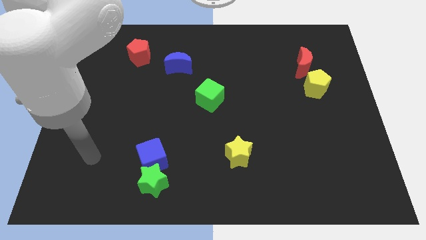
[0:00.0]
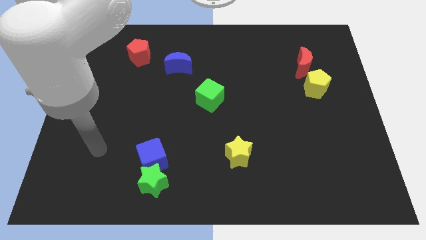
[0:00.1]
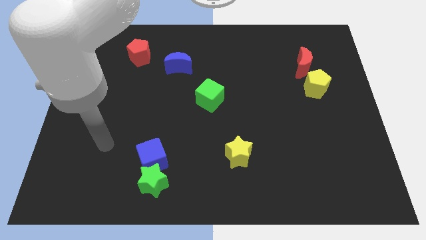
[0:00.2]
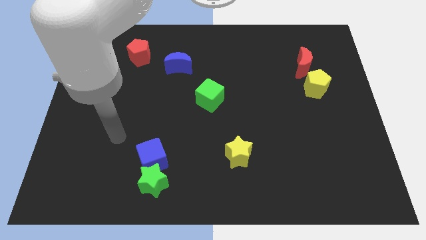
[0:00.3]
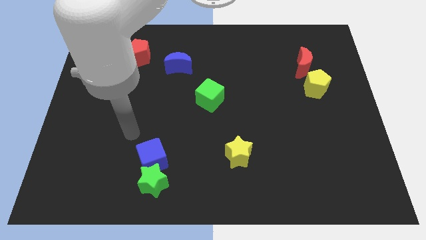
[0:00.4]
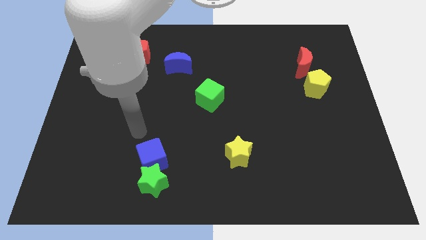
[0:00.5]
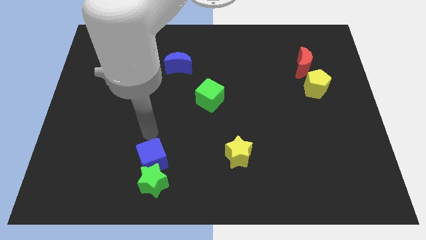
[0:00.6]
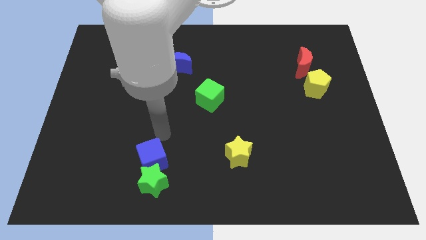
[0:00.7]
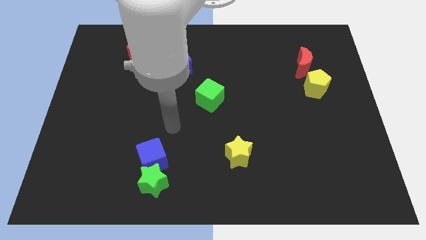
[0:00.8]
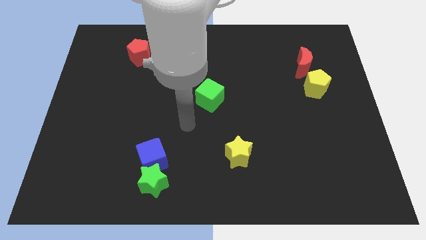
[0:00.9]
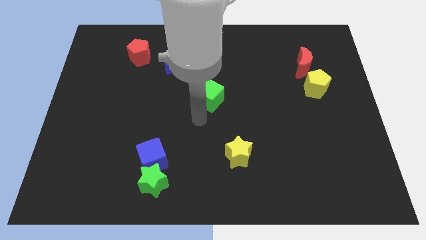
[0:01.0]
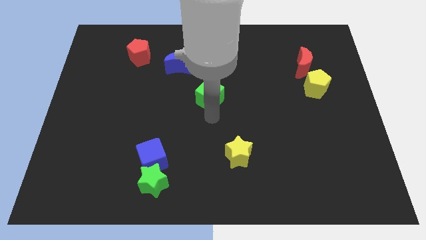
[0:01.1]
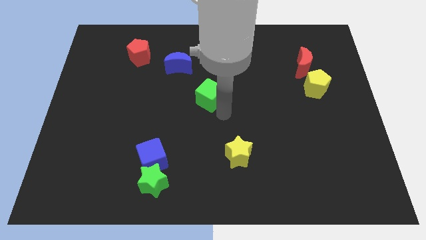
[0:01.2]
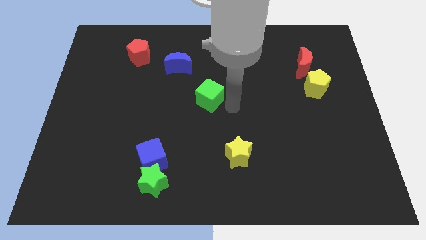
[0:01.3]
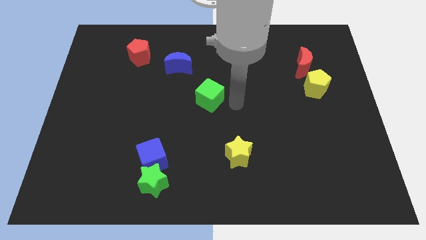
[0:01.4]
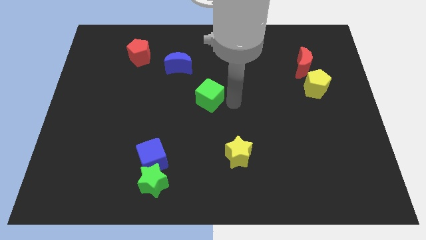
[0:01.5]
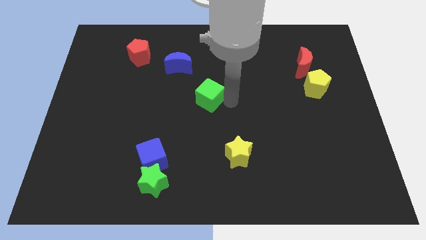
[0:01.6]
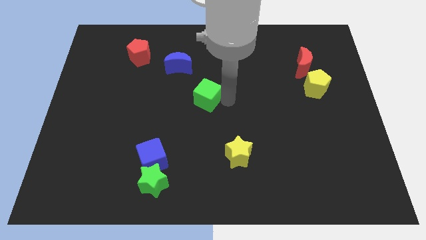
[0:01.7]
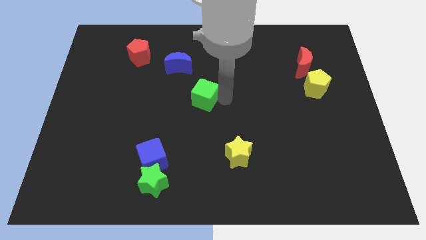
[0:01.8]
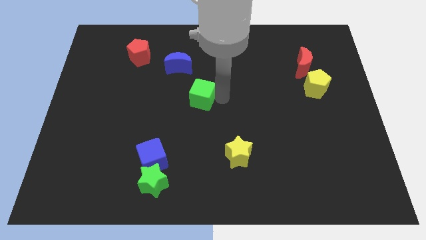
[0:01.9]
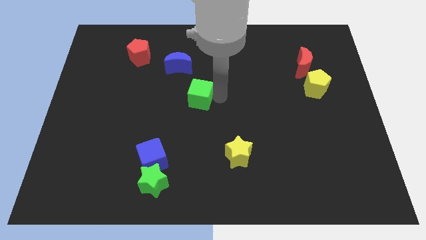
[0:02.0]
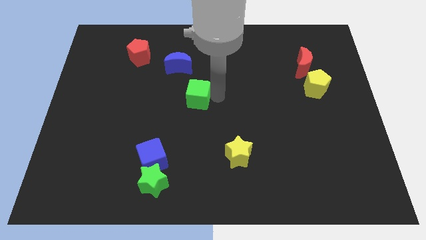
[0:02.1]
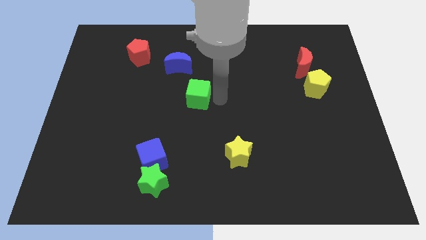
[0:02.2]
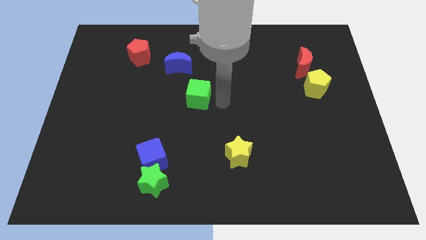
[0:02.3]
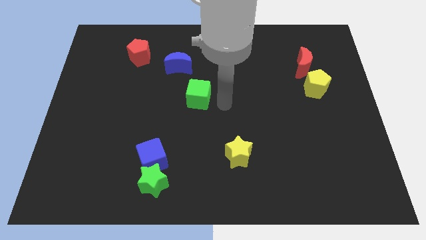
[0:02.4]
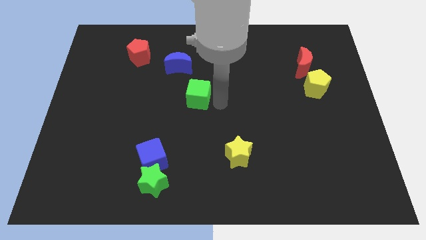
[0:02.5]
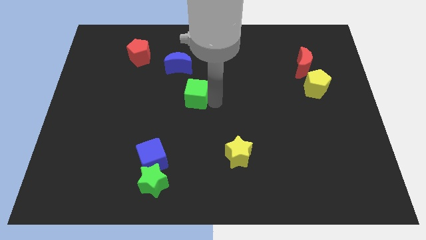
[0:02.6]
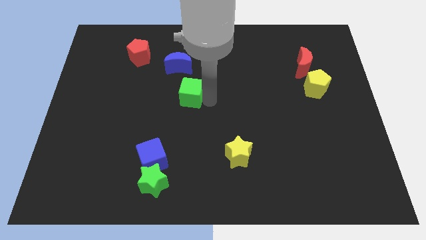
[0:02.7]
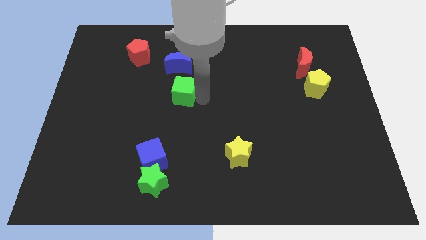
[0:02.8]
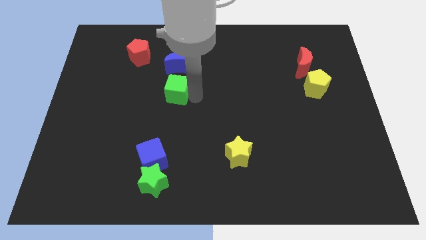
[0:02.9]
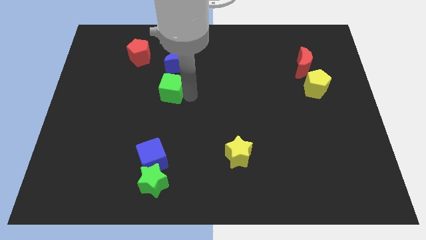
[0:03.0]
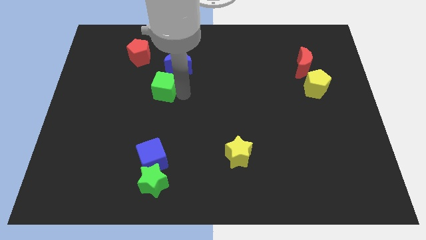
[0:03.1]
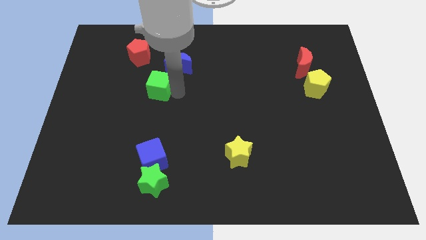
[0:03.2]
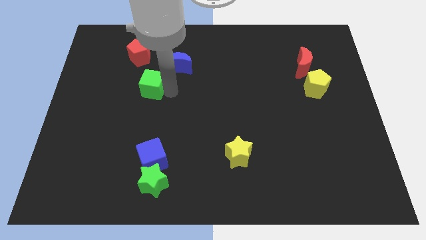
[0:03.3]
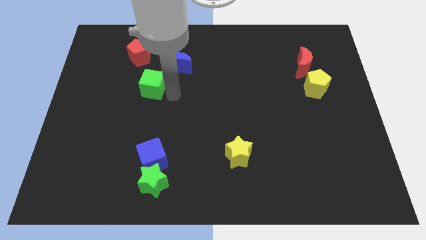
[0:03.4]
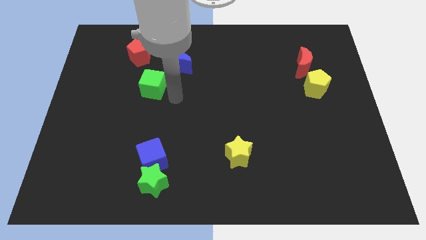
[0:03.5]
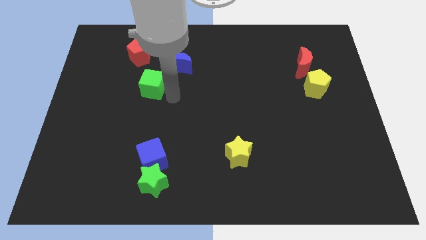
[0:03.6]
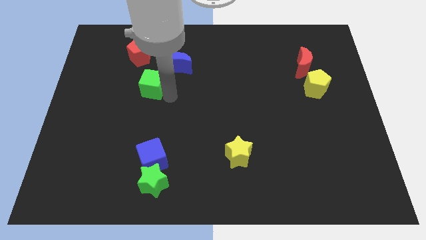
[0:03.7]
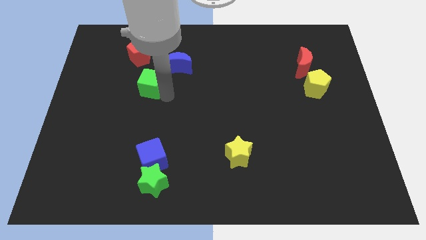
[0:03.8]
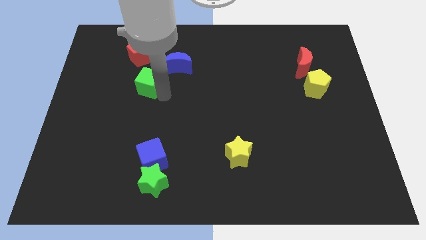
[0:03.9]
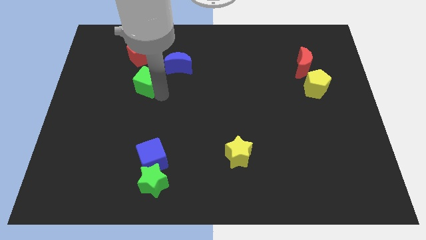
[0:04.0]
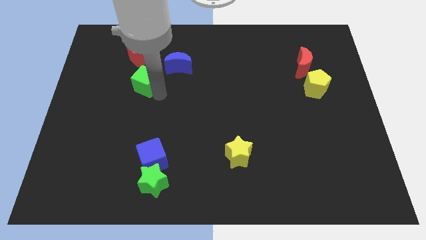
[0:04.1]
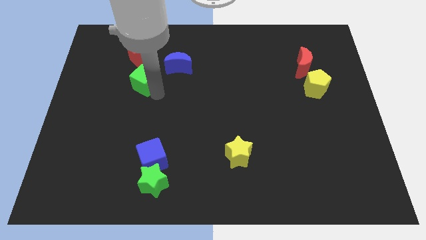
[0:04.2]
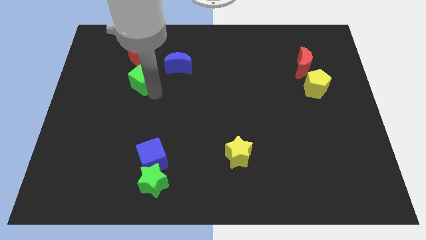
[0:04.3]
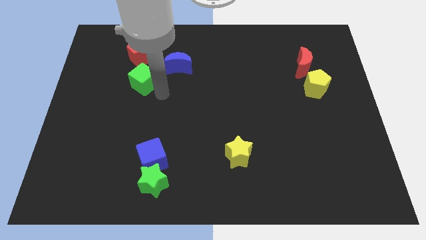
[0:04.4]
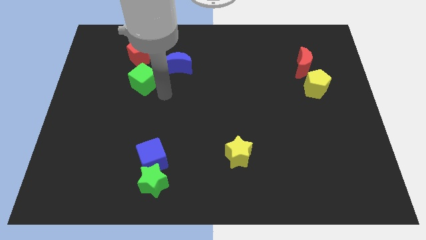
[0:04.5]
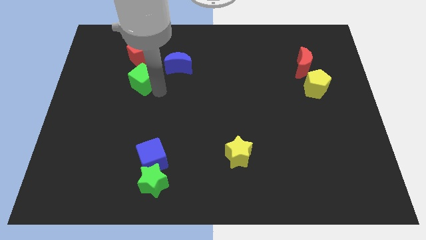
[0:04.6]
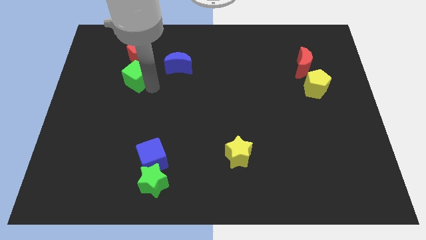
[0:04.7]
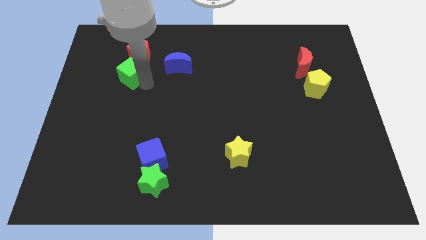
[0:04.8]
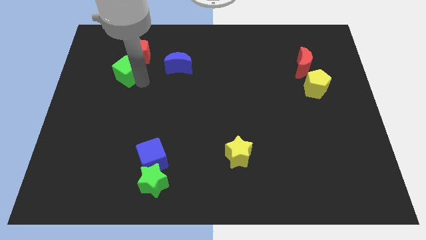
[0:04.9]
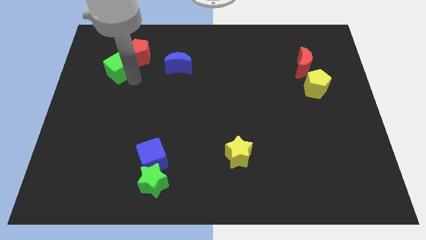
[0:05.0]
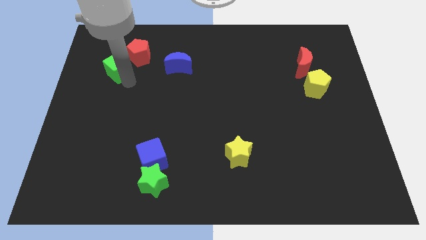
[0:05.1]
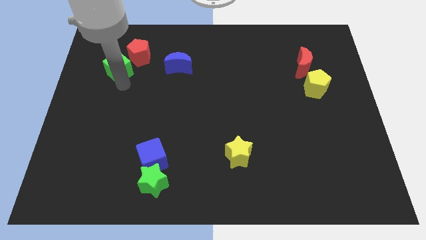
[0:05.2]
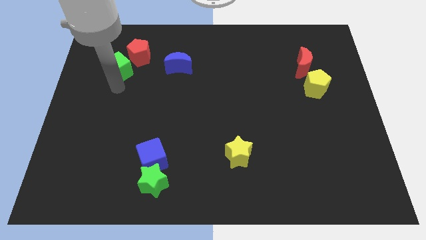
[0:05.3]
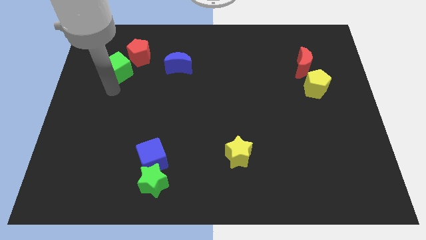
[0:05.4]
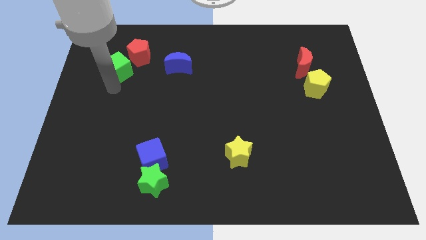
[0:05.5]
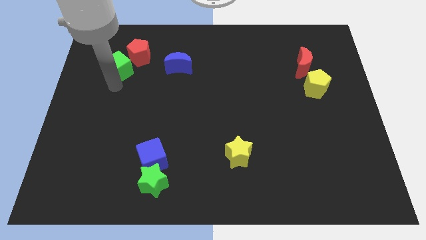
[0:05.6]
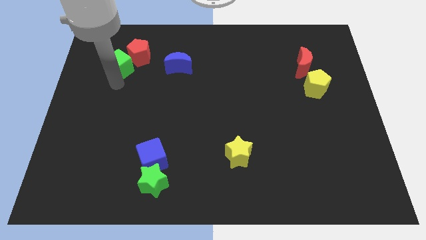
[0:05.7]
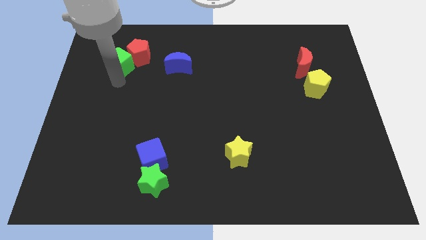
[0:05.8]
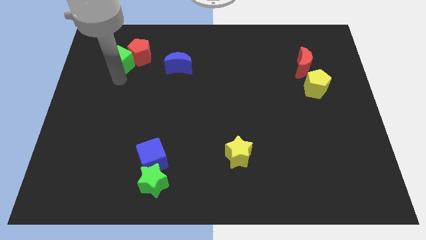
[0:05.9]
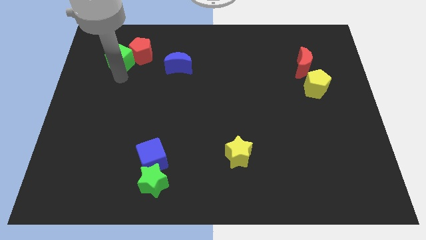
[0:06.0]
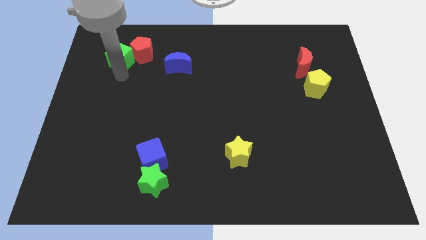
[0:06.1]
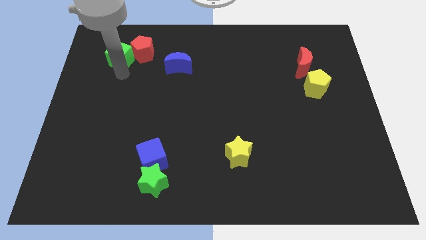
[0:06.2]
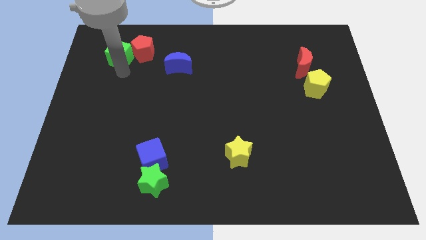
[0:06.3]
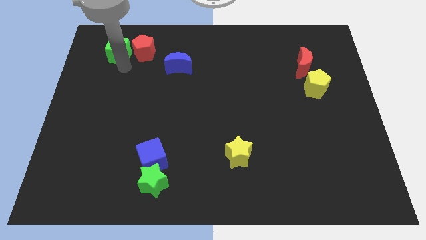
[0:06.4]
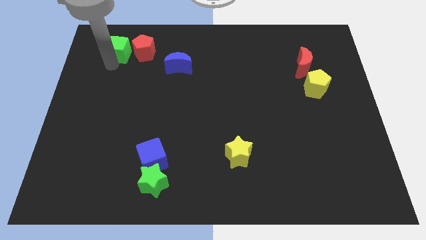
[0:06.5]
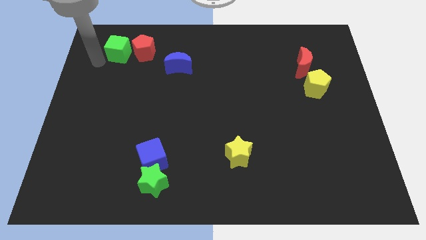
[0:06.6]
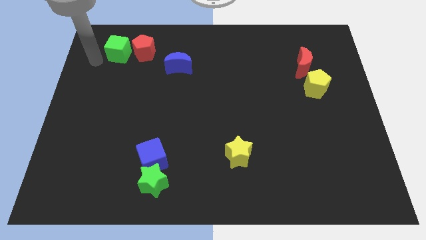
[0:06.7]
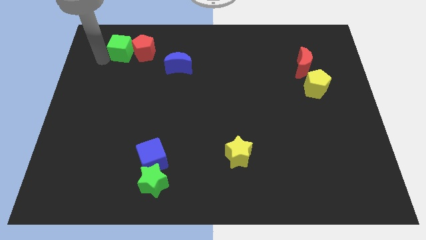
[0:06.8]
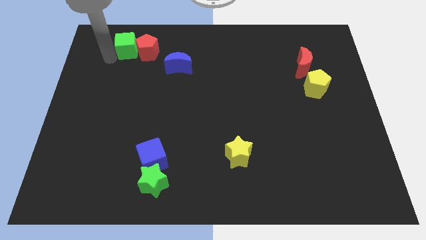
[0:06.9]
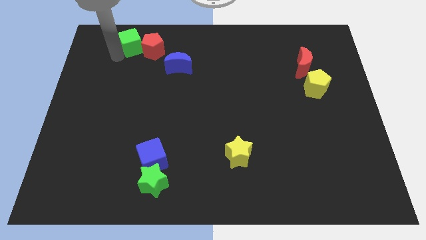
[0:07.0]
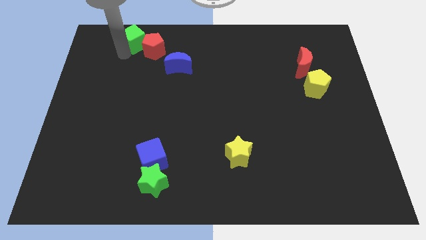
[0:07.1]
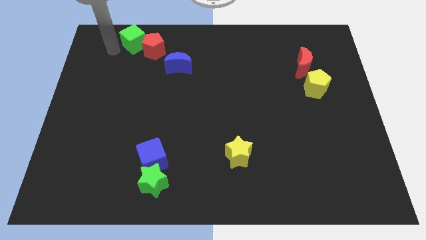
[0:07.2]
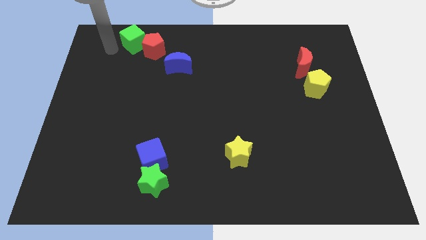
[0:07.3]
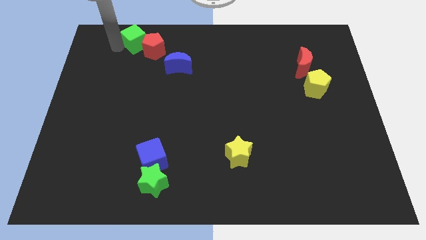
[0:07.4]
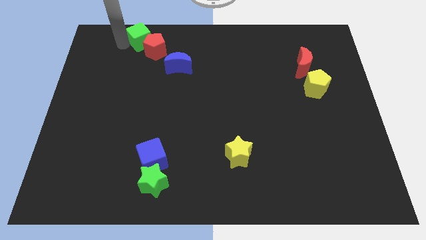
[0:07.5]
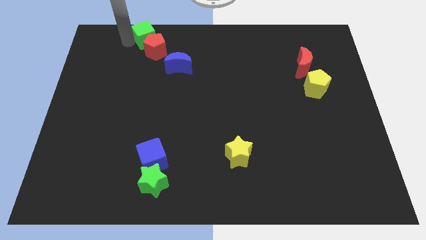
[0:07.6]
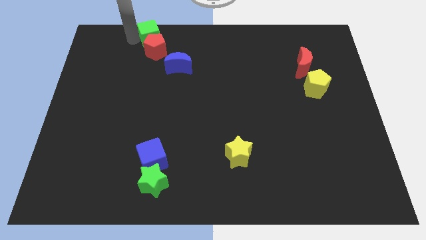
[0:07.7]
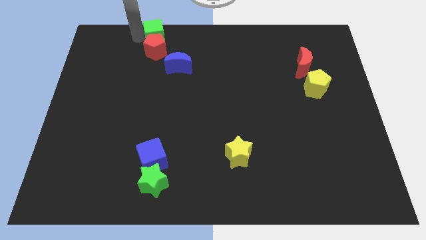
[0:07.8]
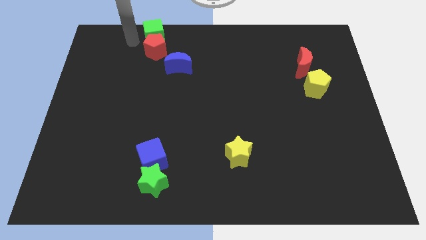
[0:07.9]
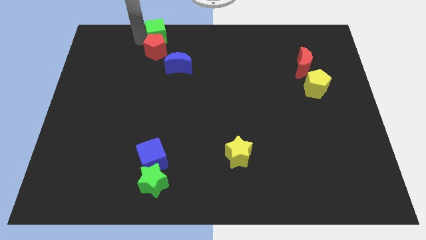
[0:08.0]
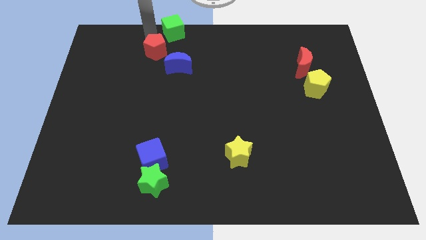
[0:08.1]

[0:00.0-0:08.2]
move the green cube to the towards your base
